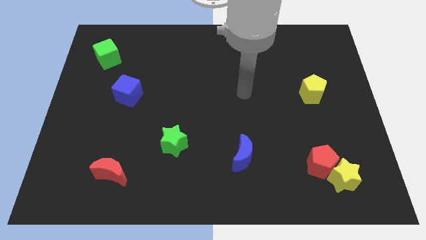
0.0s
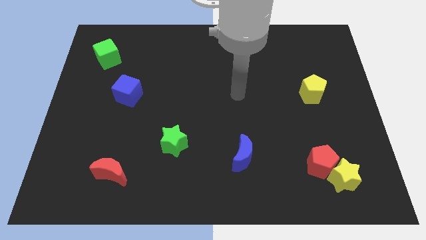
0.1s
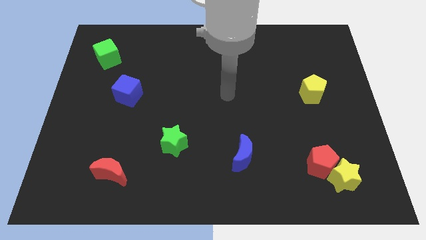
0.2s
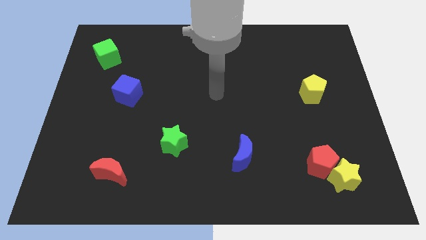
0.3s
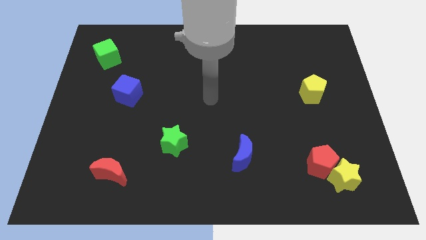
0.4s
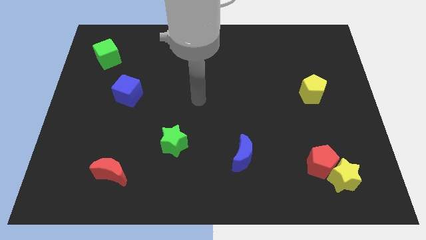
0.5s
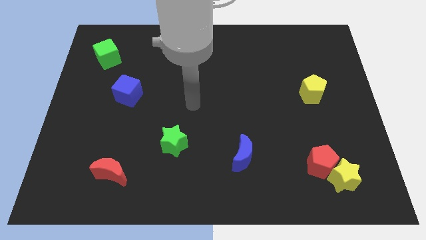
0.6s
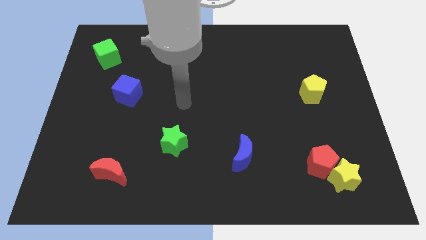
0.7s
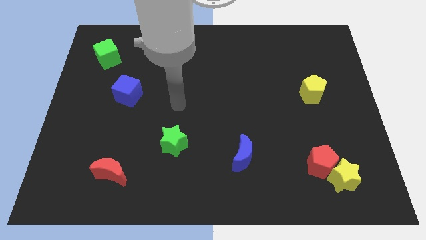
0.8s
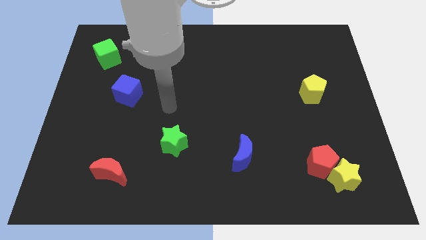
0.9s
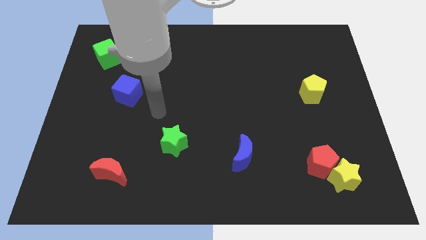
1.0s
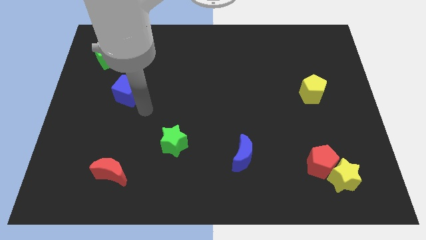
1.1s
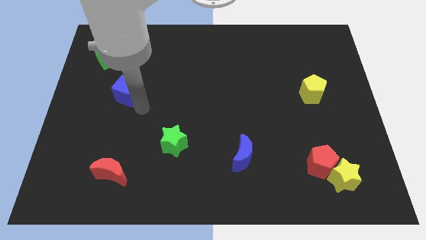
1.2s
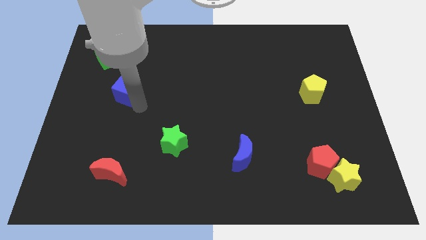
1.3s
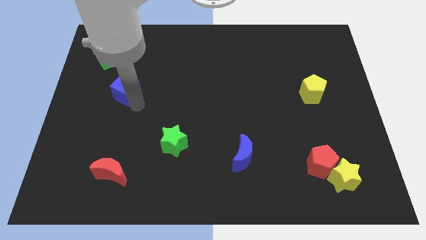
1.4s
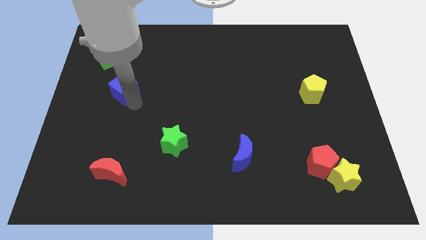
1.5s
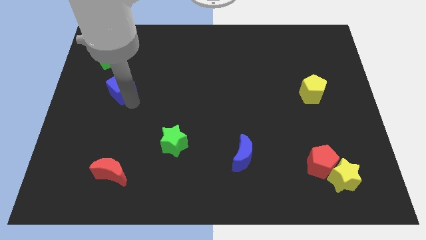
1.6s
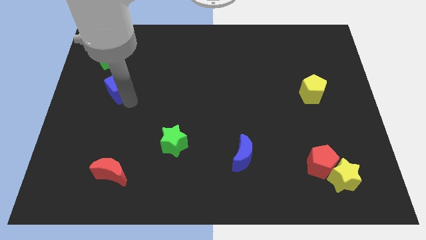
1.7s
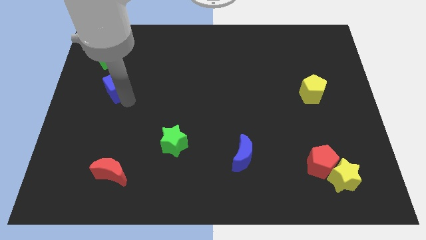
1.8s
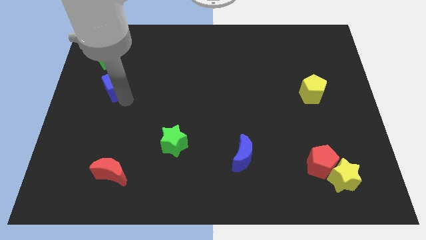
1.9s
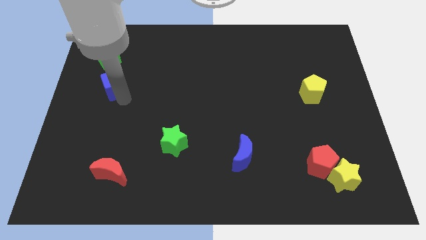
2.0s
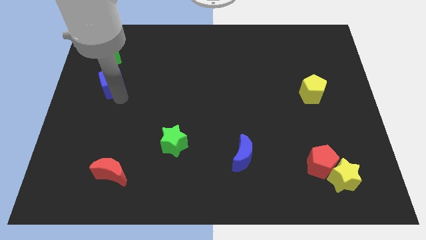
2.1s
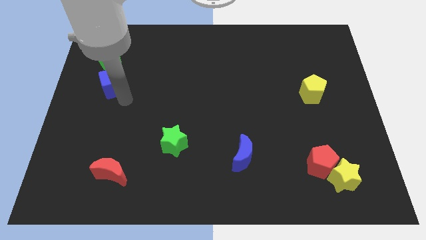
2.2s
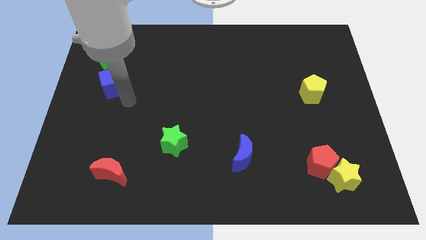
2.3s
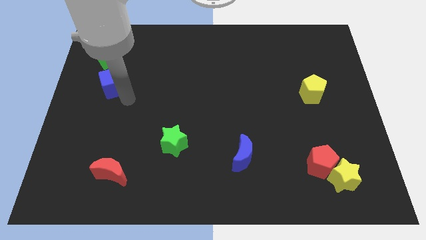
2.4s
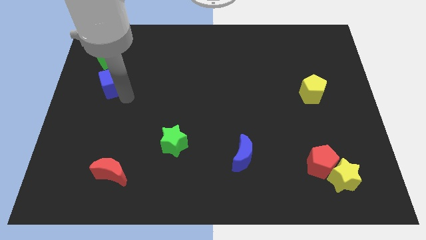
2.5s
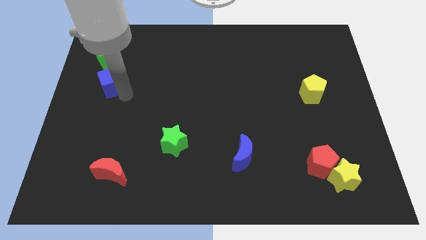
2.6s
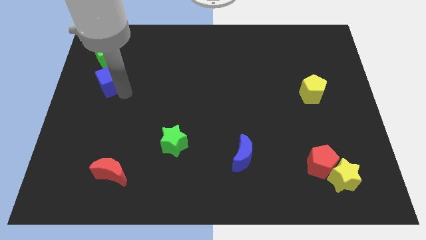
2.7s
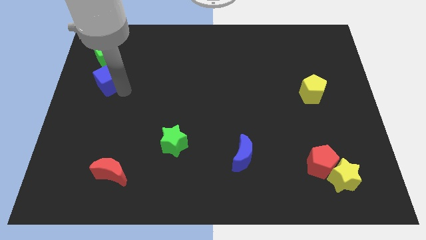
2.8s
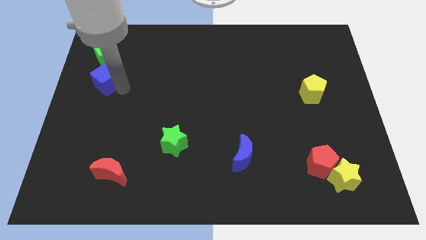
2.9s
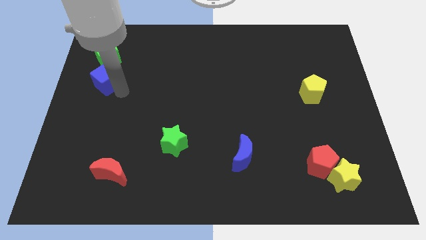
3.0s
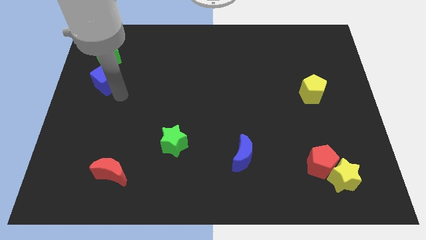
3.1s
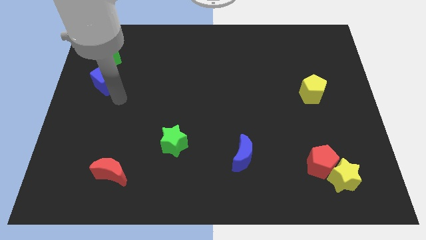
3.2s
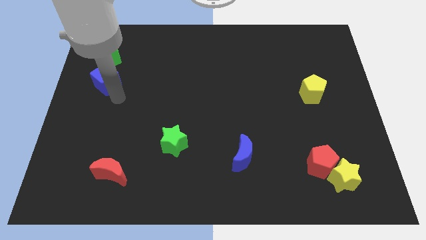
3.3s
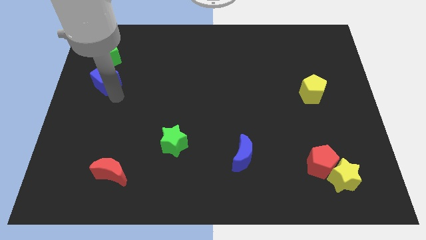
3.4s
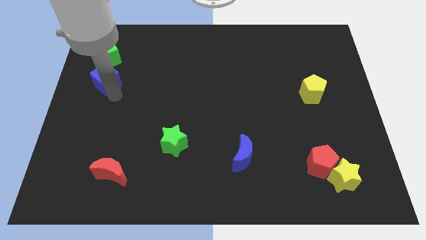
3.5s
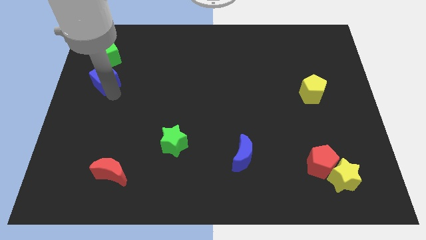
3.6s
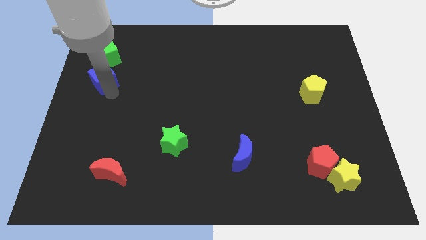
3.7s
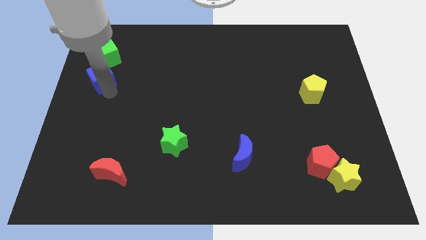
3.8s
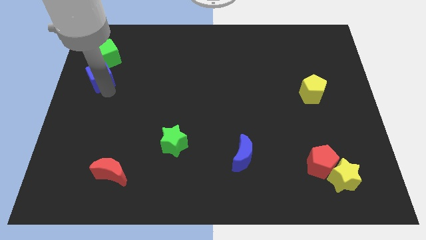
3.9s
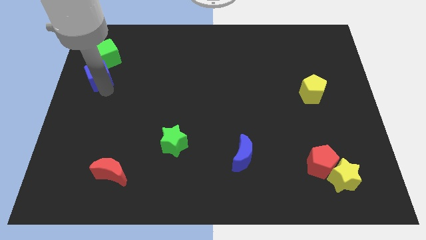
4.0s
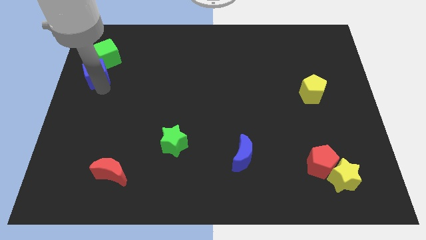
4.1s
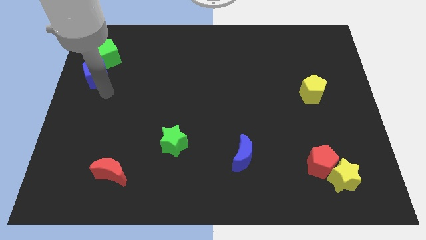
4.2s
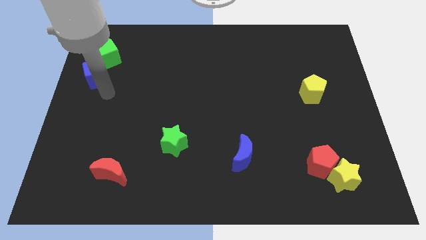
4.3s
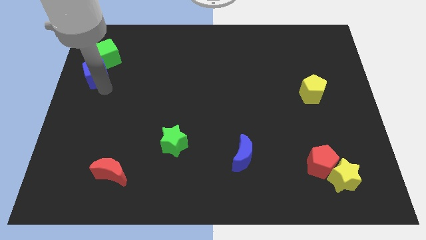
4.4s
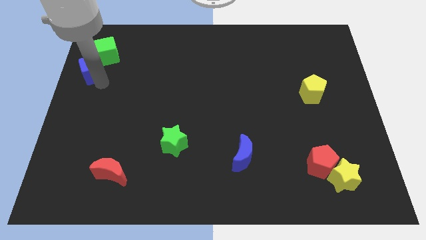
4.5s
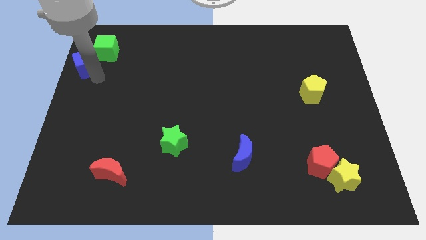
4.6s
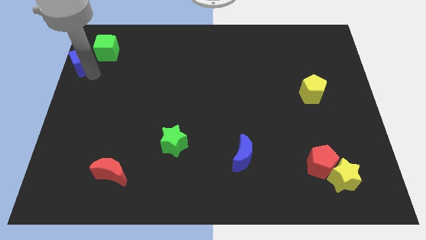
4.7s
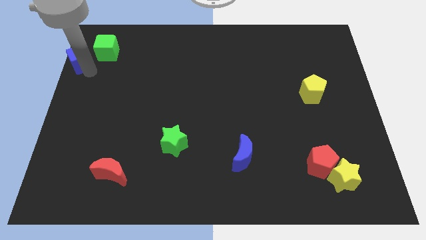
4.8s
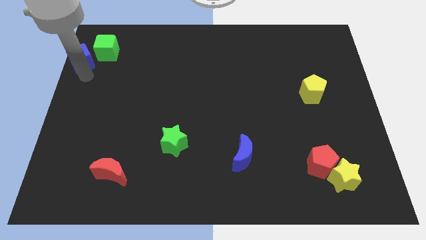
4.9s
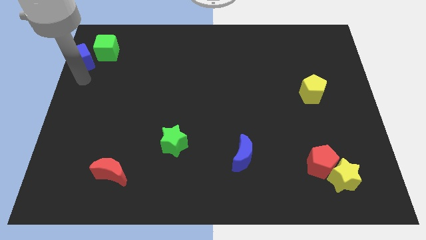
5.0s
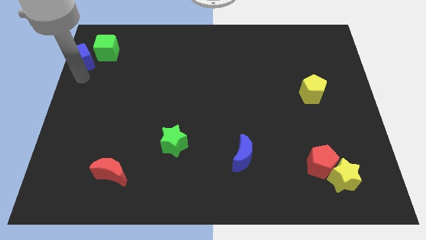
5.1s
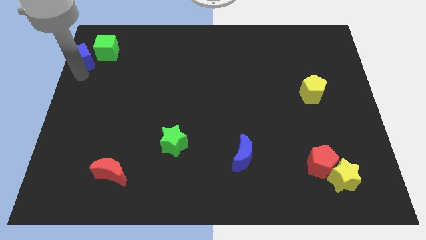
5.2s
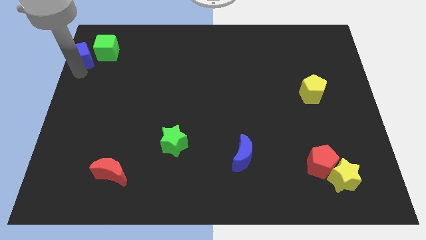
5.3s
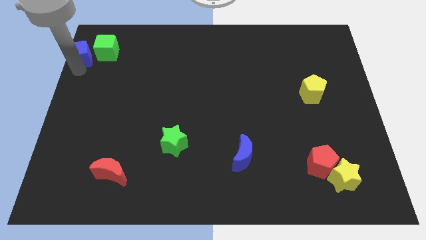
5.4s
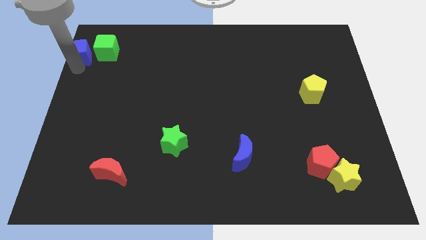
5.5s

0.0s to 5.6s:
slide the blue cube to the top left of the board

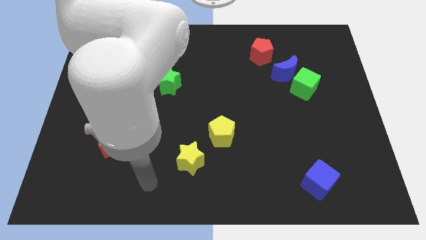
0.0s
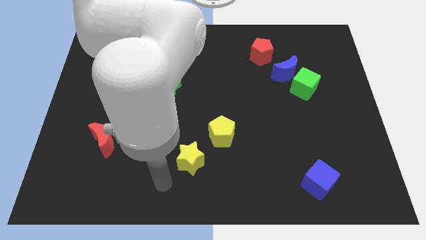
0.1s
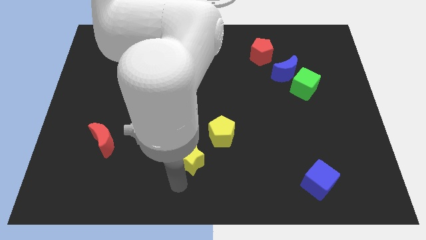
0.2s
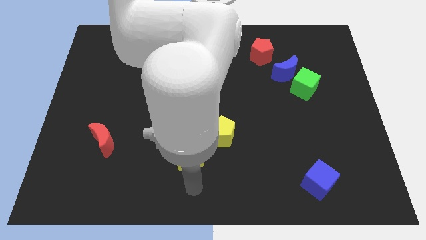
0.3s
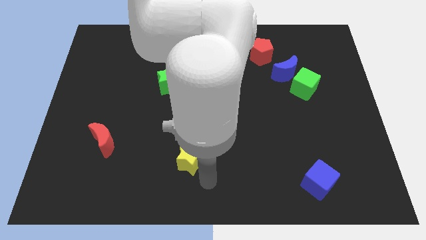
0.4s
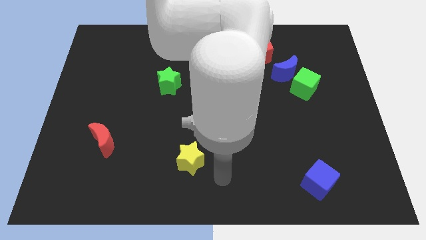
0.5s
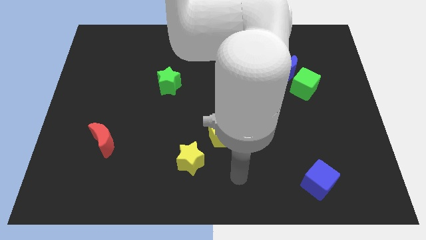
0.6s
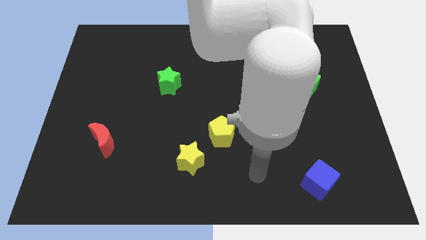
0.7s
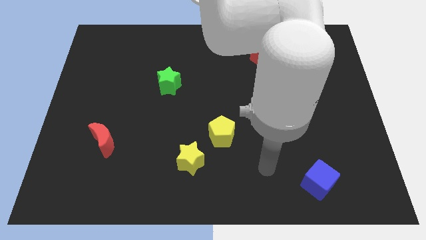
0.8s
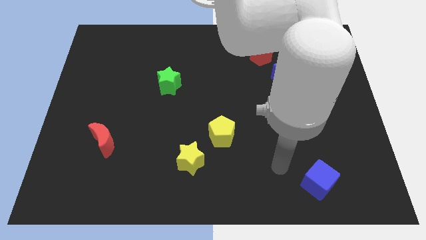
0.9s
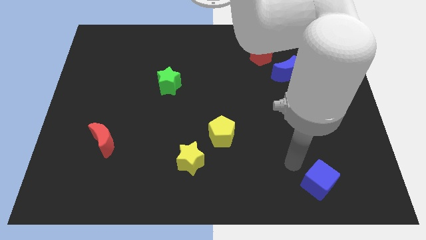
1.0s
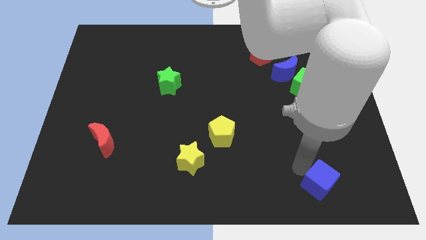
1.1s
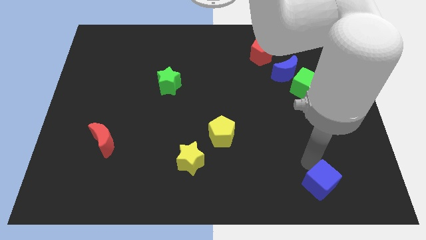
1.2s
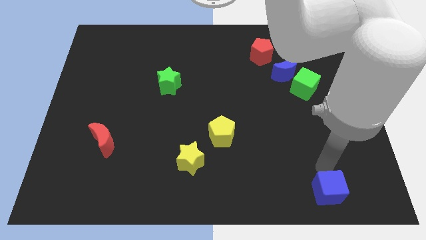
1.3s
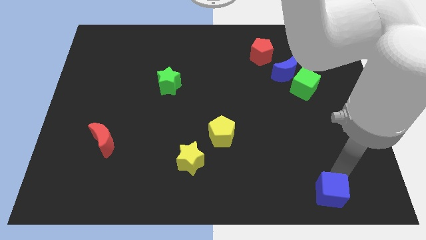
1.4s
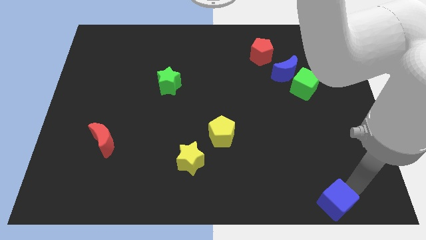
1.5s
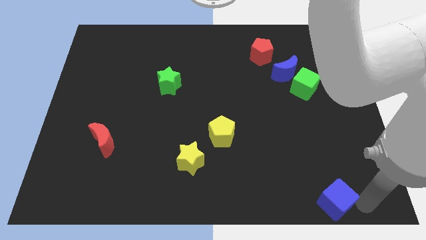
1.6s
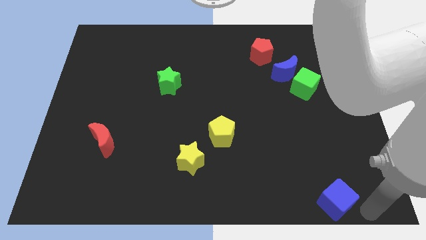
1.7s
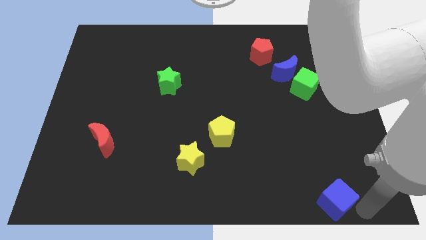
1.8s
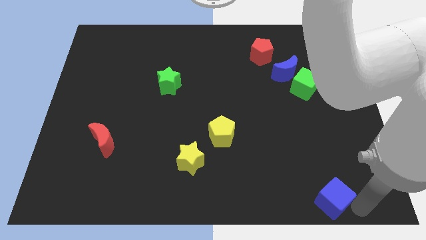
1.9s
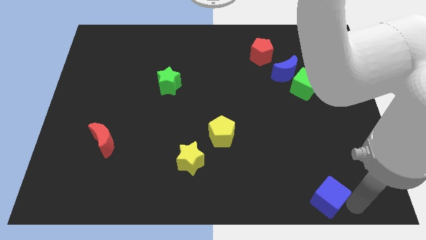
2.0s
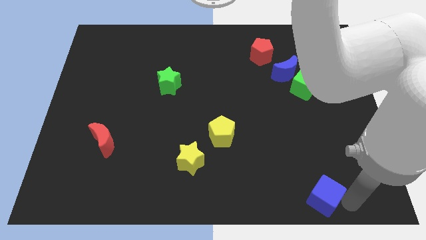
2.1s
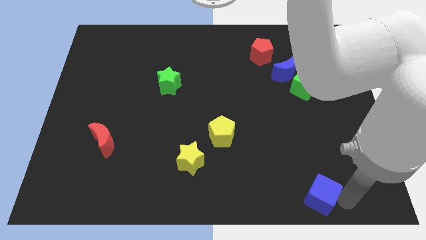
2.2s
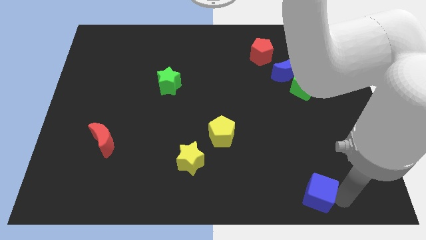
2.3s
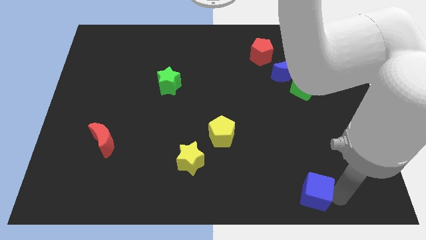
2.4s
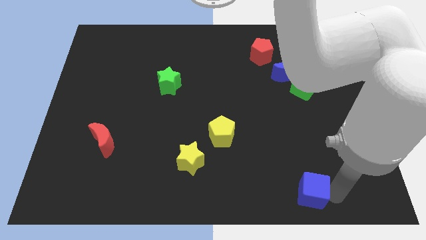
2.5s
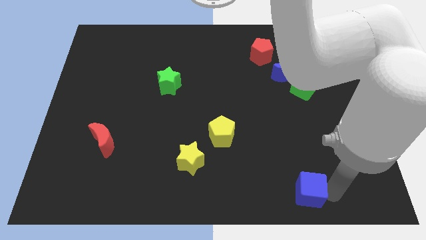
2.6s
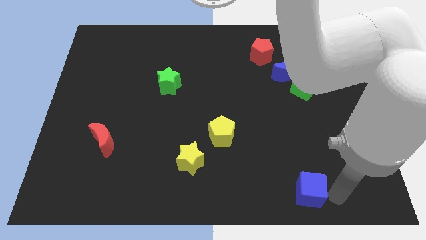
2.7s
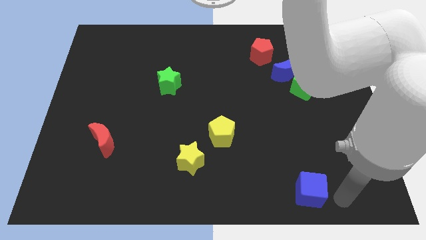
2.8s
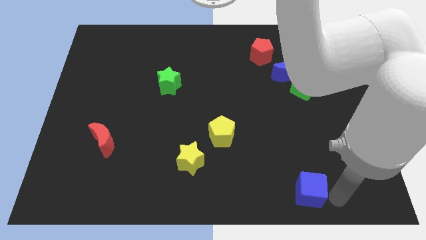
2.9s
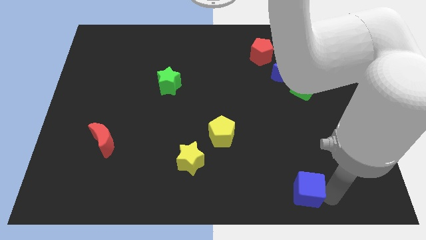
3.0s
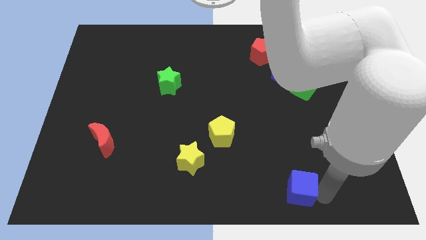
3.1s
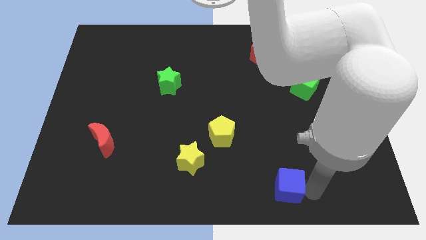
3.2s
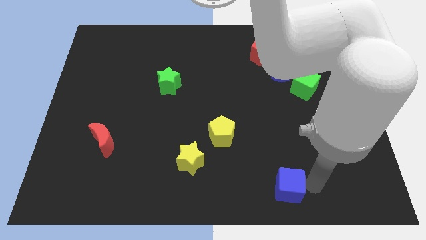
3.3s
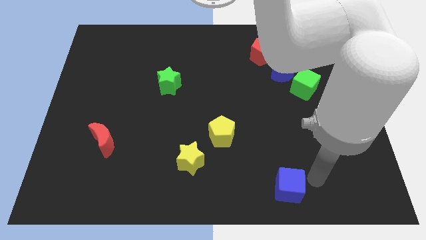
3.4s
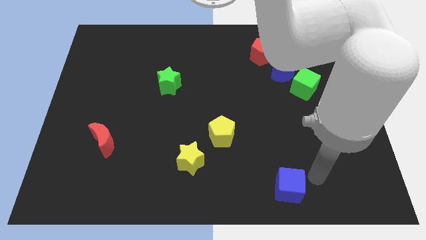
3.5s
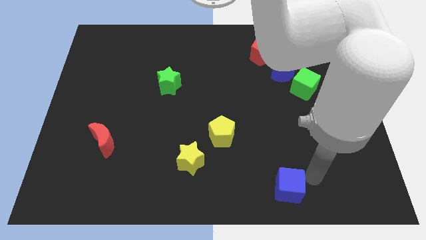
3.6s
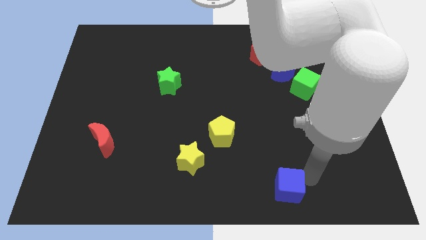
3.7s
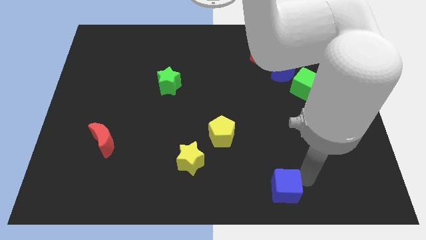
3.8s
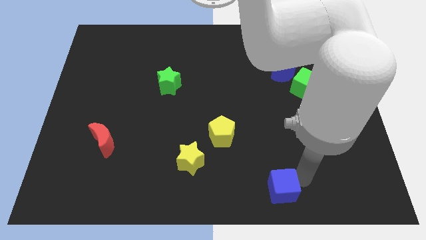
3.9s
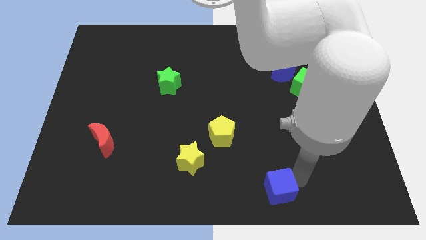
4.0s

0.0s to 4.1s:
push the blue cube to the bottom
